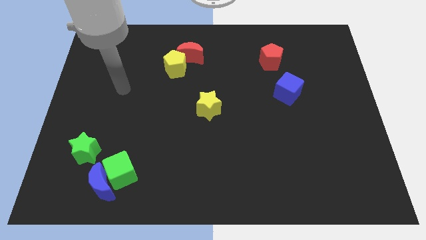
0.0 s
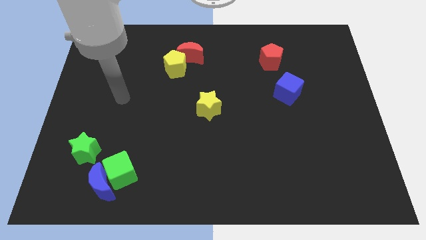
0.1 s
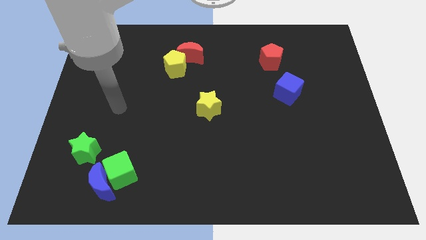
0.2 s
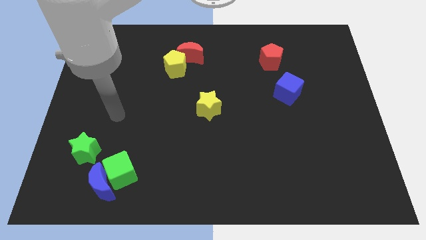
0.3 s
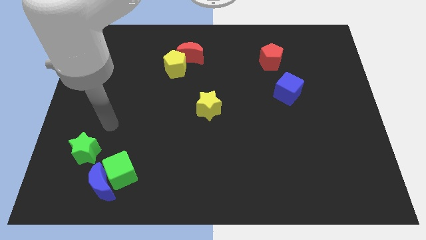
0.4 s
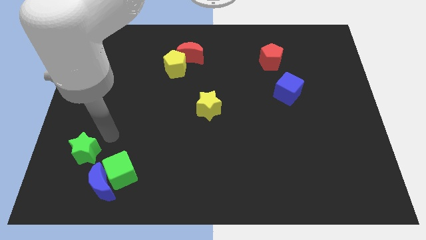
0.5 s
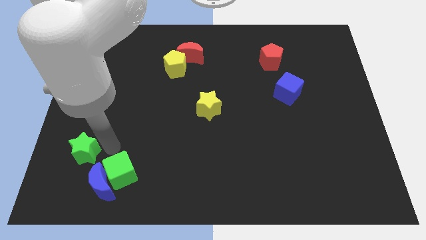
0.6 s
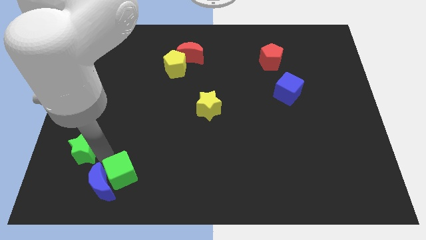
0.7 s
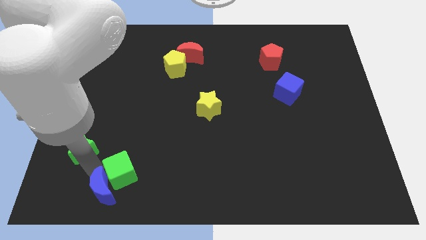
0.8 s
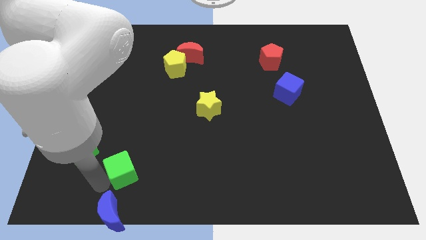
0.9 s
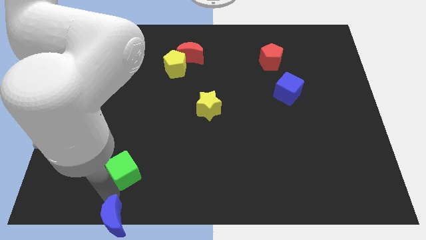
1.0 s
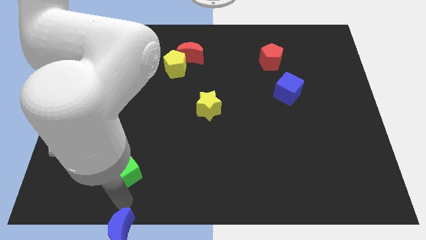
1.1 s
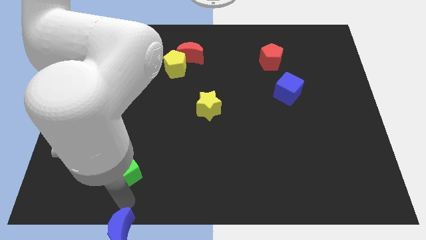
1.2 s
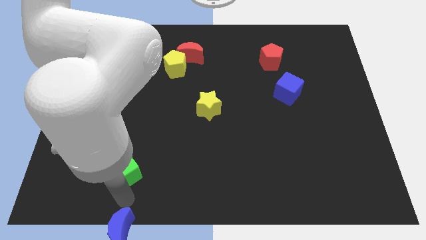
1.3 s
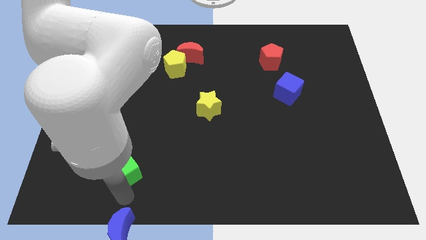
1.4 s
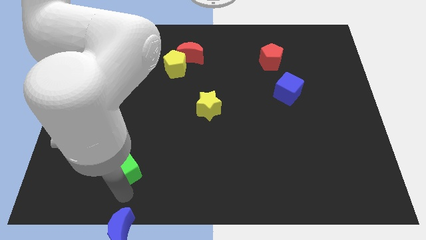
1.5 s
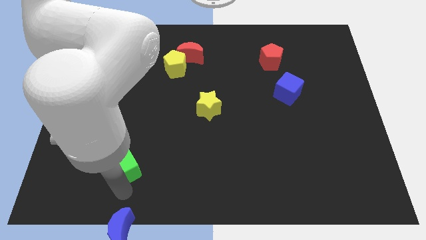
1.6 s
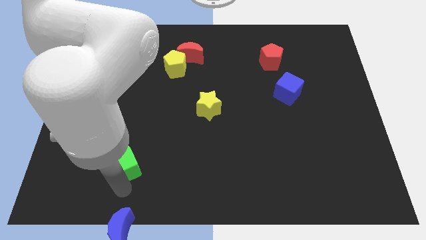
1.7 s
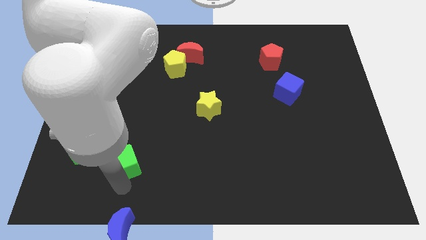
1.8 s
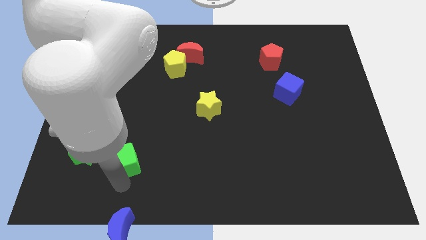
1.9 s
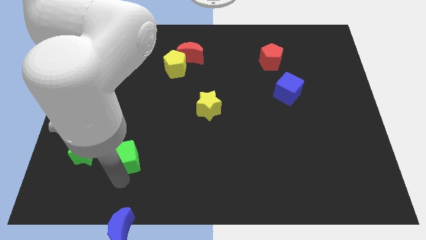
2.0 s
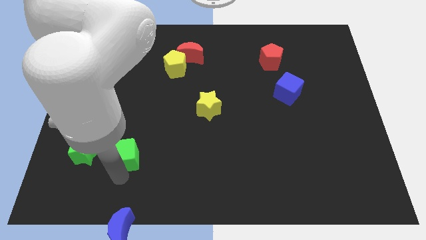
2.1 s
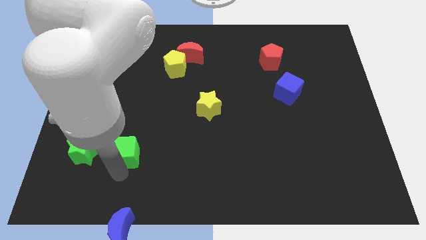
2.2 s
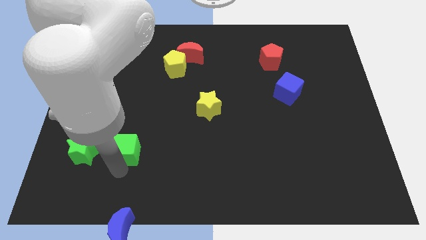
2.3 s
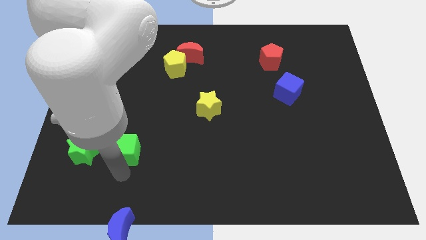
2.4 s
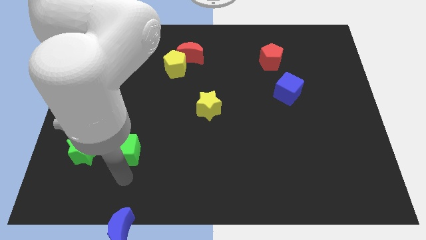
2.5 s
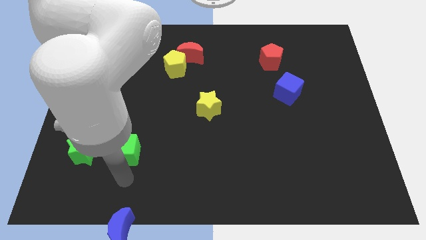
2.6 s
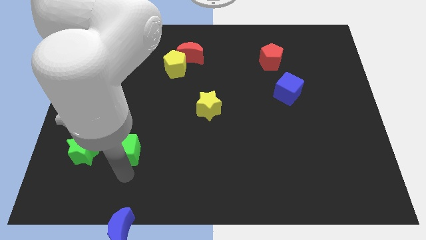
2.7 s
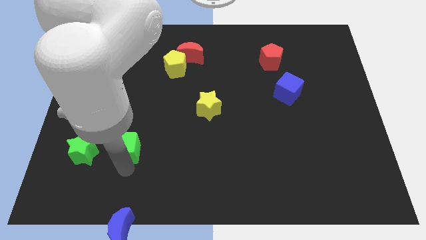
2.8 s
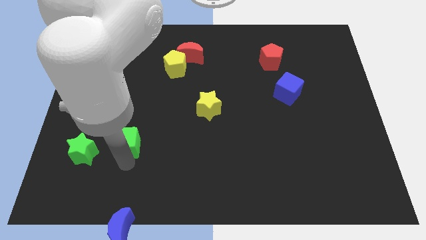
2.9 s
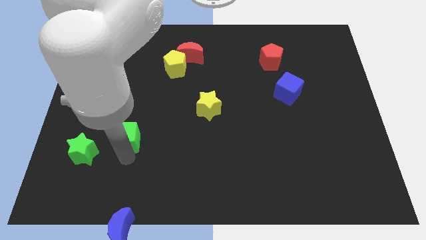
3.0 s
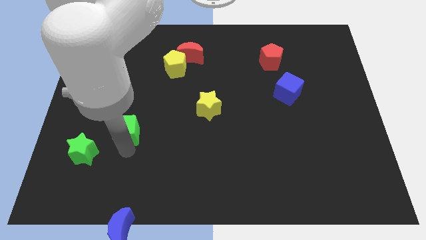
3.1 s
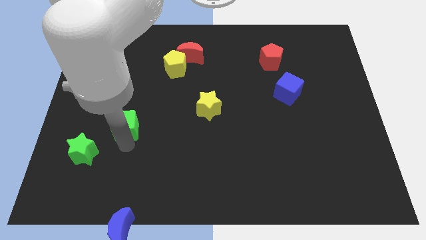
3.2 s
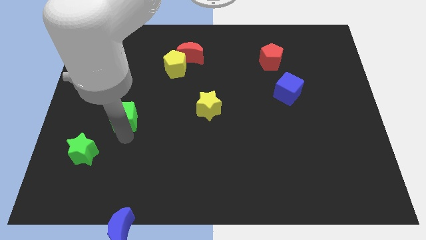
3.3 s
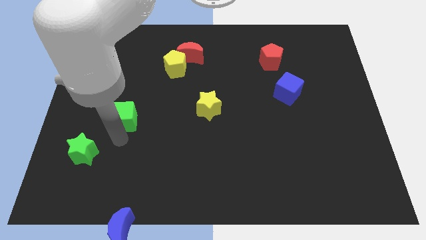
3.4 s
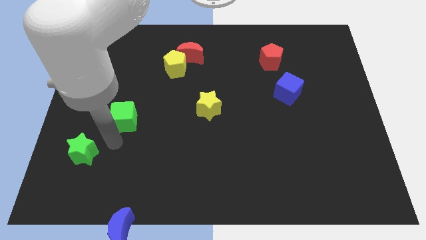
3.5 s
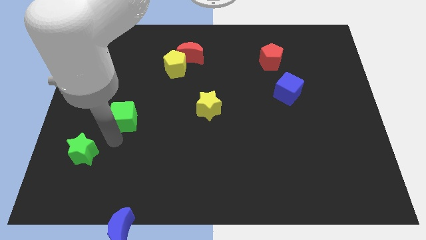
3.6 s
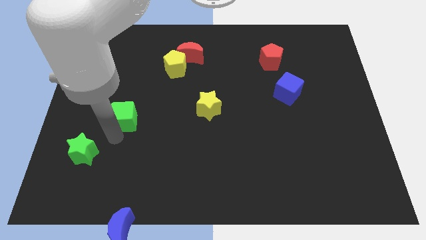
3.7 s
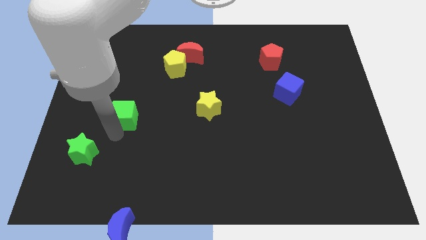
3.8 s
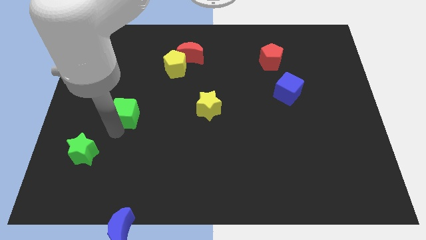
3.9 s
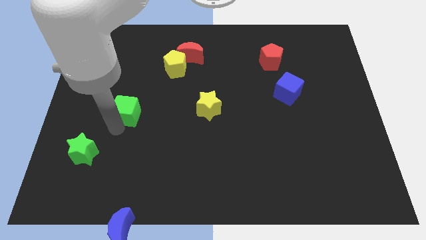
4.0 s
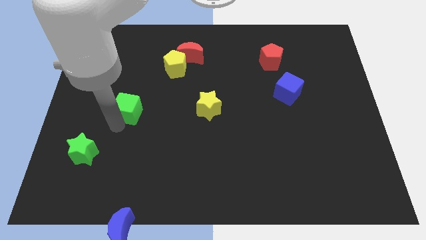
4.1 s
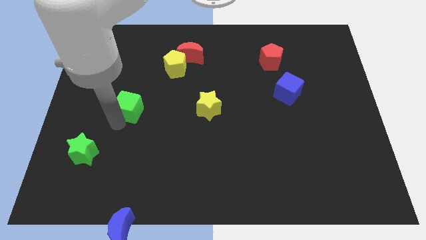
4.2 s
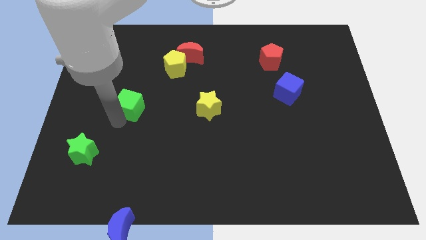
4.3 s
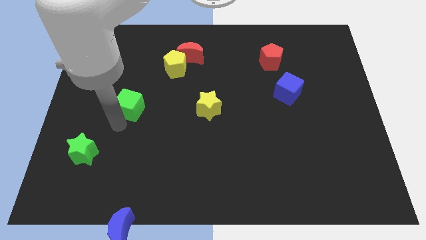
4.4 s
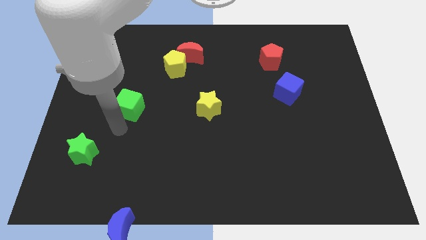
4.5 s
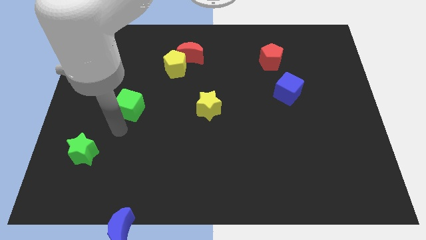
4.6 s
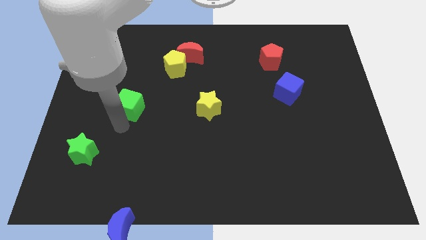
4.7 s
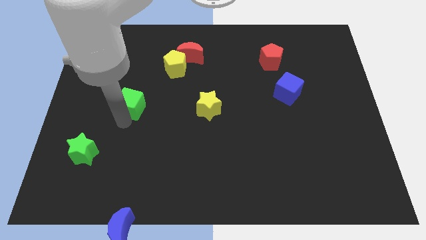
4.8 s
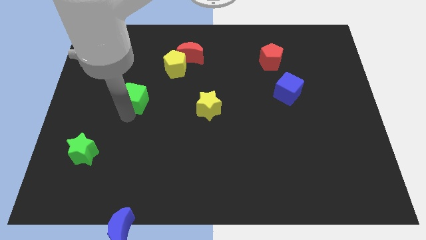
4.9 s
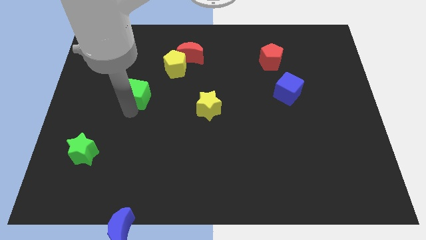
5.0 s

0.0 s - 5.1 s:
move the green cube up

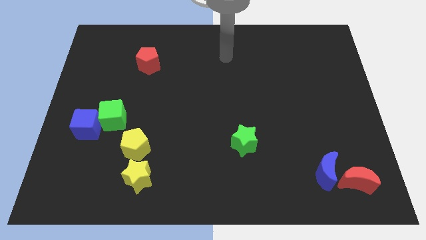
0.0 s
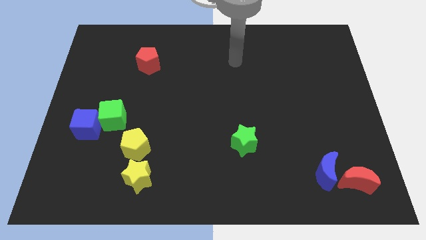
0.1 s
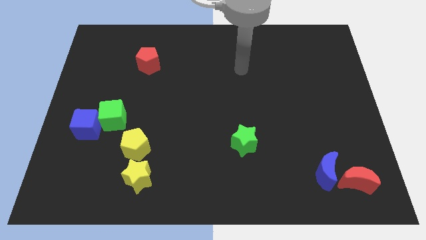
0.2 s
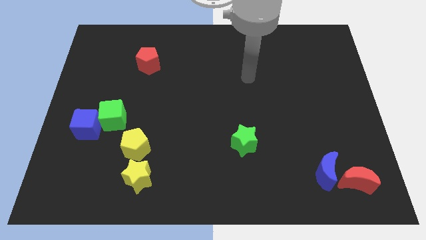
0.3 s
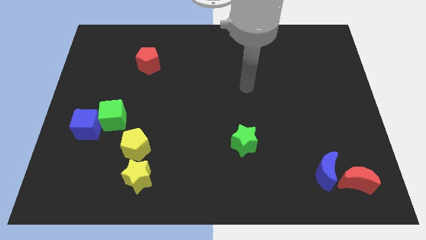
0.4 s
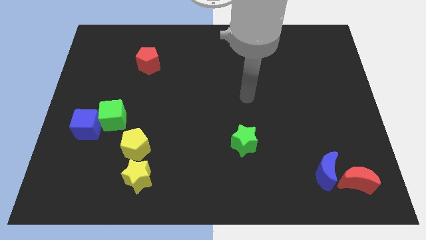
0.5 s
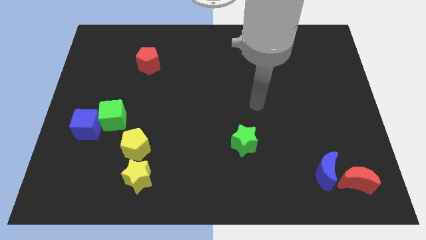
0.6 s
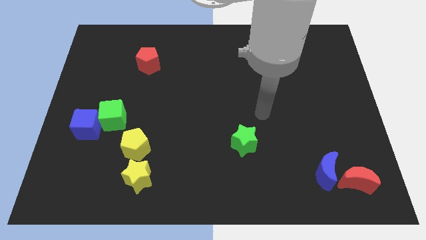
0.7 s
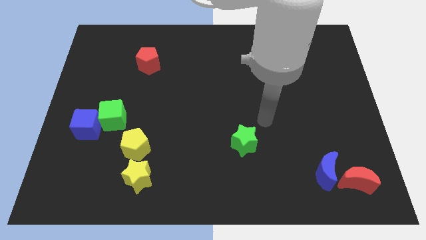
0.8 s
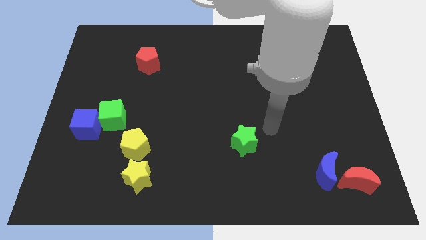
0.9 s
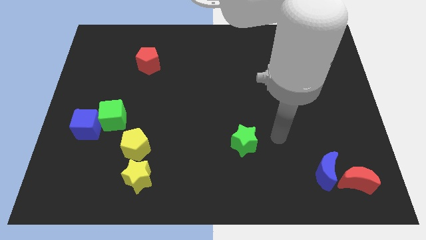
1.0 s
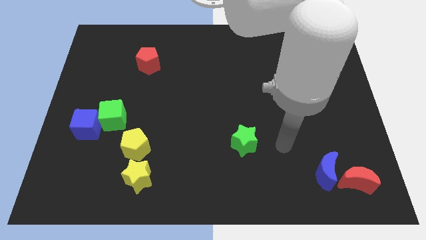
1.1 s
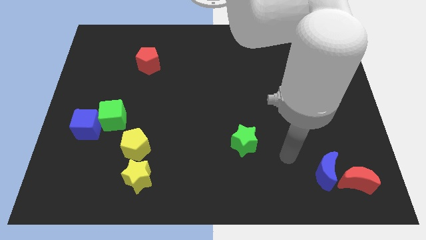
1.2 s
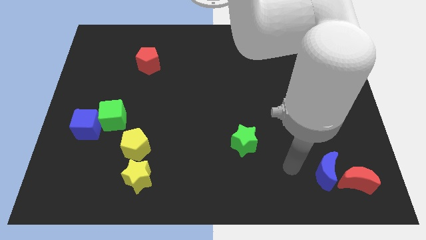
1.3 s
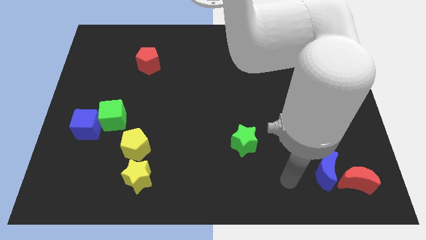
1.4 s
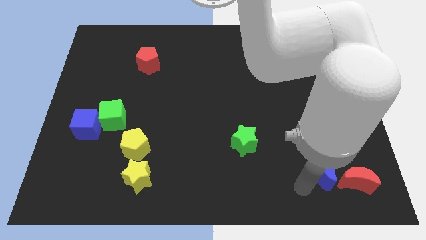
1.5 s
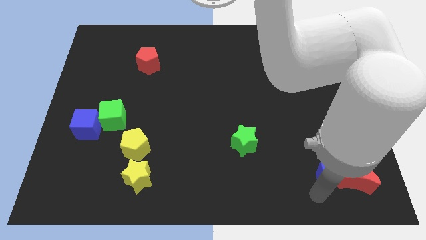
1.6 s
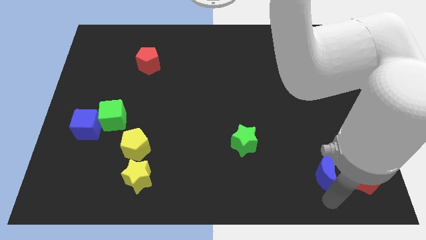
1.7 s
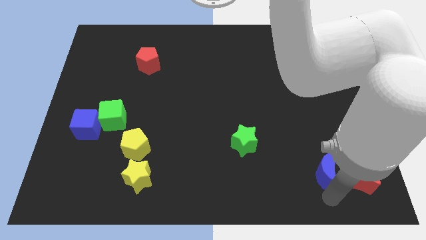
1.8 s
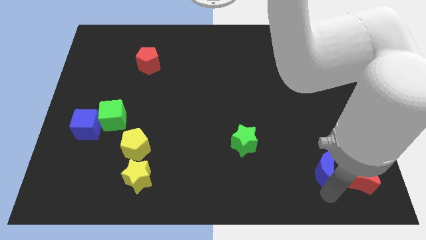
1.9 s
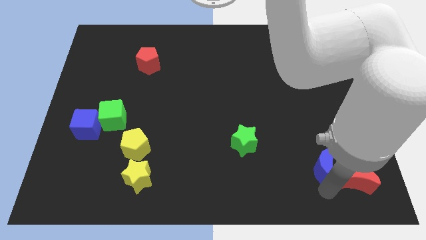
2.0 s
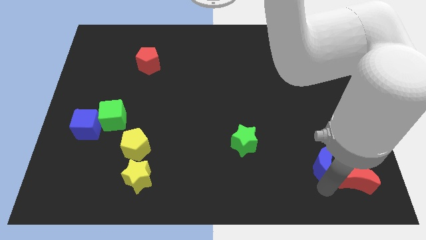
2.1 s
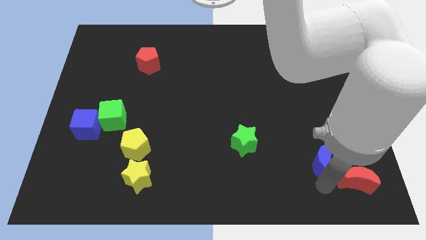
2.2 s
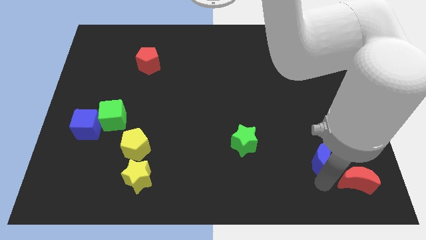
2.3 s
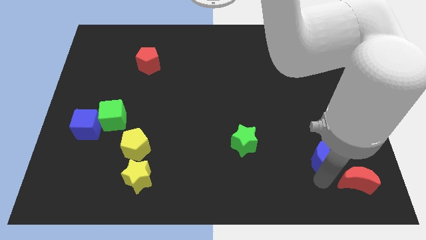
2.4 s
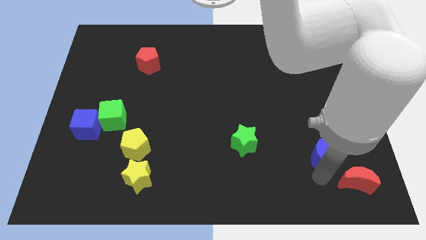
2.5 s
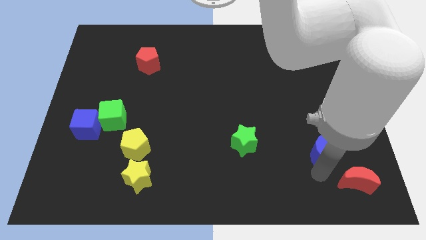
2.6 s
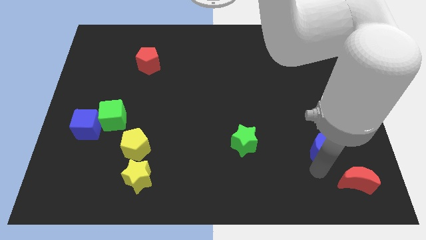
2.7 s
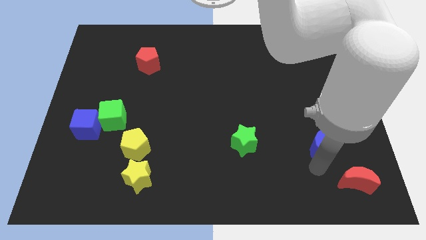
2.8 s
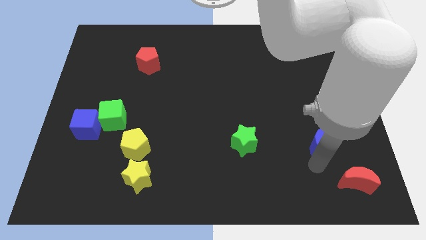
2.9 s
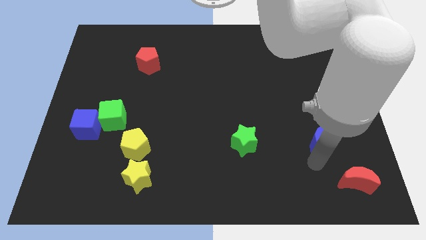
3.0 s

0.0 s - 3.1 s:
slightly move the blue moon upwards
